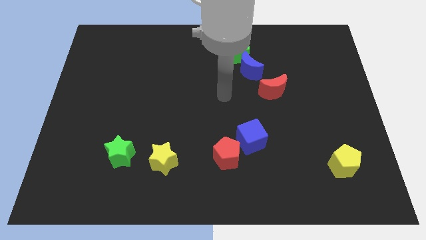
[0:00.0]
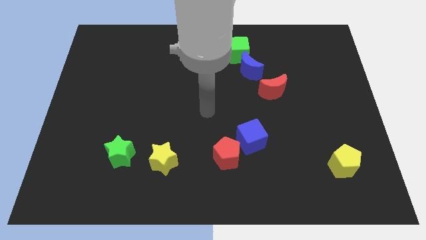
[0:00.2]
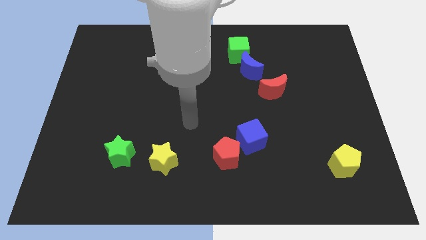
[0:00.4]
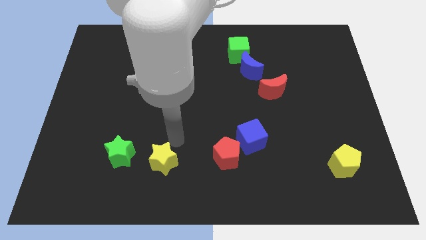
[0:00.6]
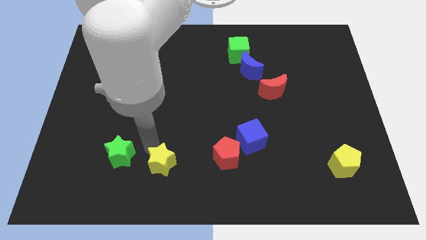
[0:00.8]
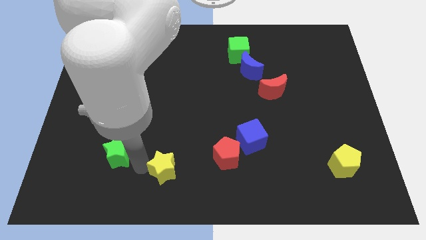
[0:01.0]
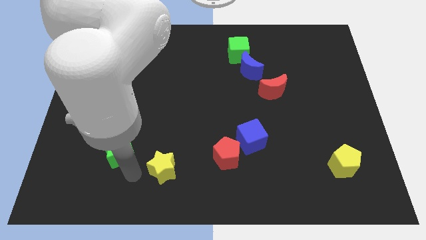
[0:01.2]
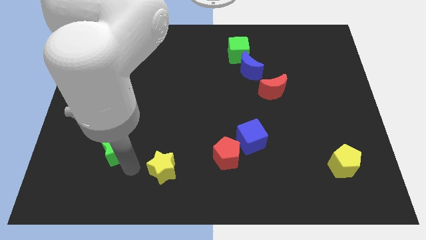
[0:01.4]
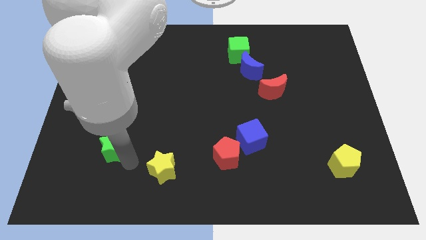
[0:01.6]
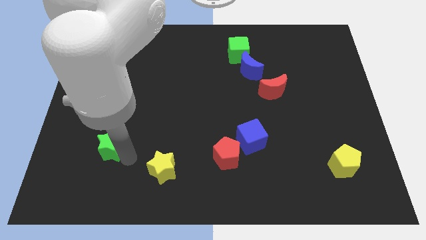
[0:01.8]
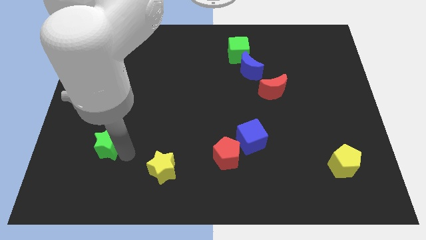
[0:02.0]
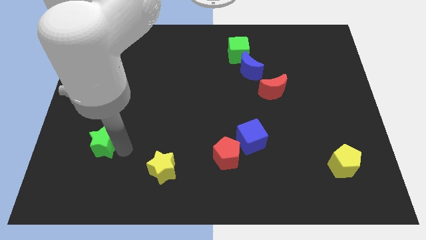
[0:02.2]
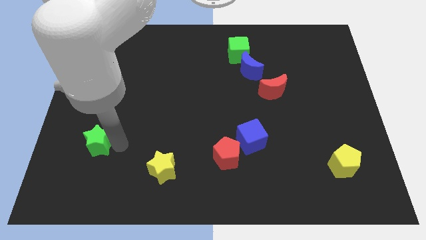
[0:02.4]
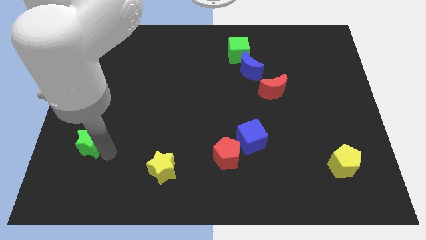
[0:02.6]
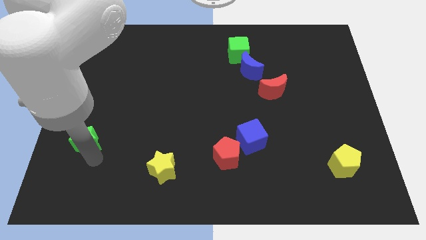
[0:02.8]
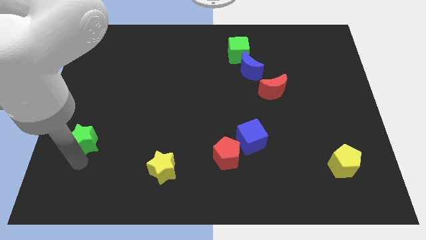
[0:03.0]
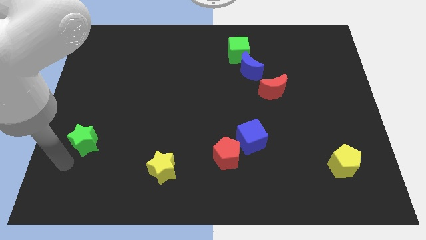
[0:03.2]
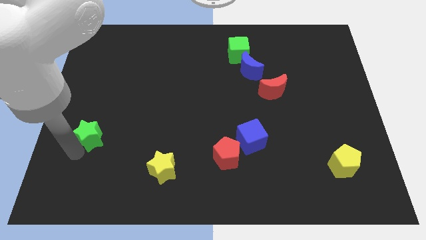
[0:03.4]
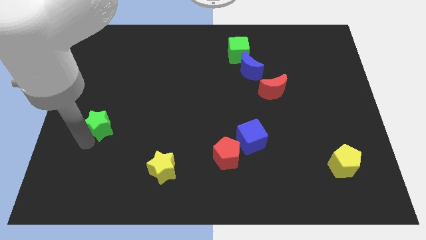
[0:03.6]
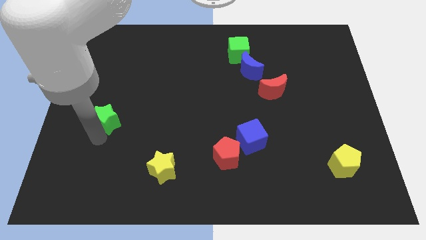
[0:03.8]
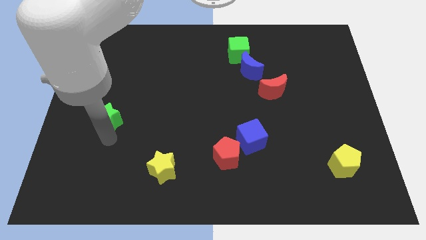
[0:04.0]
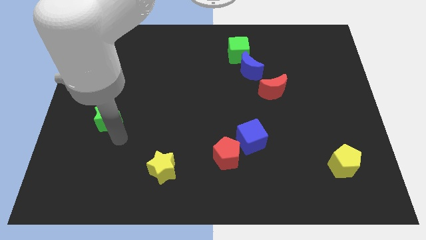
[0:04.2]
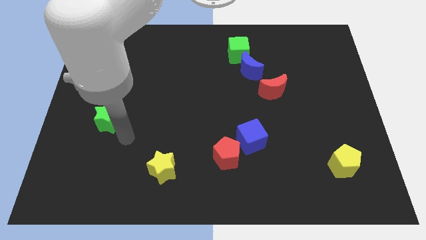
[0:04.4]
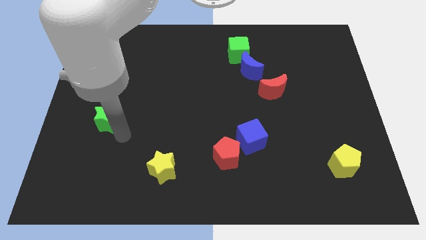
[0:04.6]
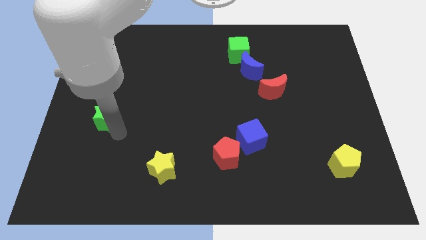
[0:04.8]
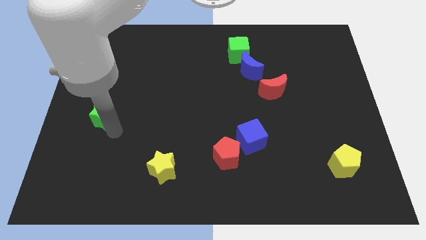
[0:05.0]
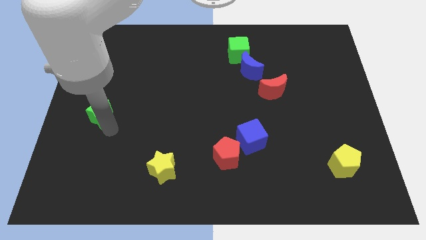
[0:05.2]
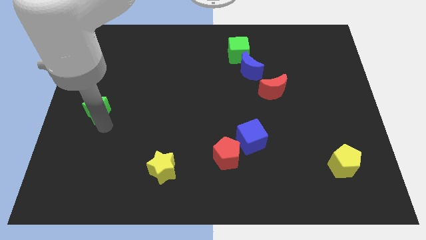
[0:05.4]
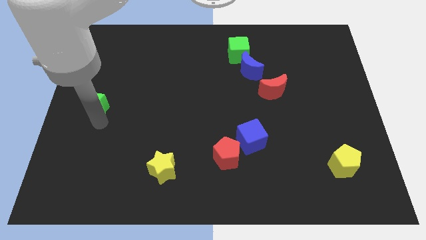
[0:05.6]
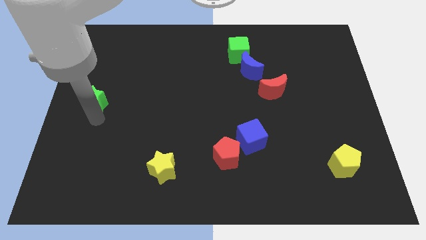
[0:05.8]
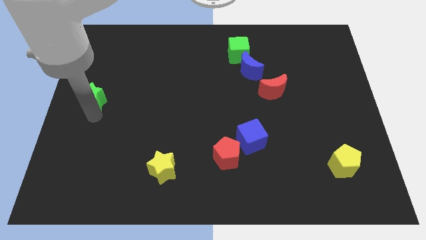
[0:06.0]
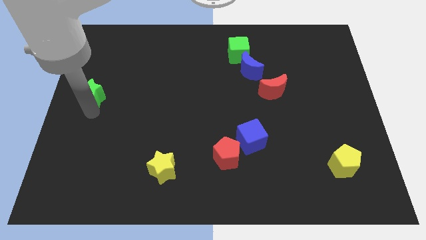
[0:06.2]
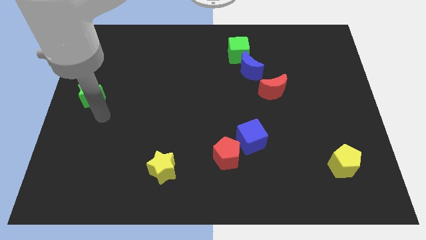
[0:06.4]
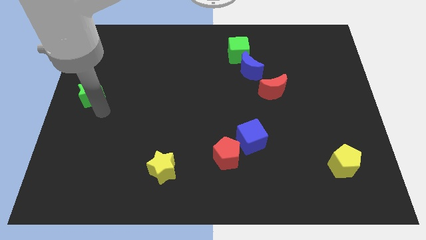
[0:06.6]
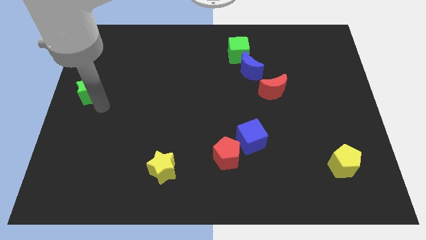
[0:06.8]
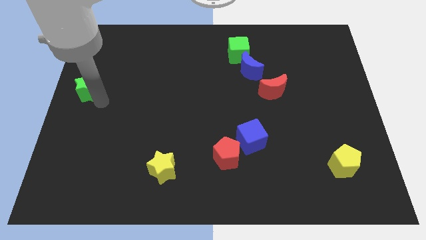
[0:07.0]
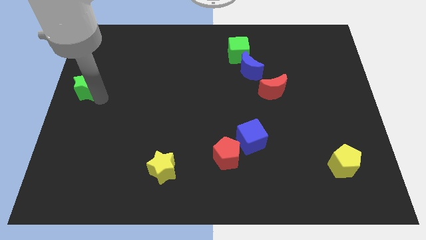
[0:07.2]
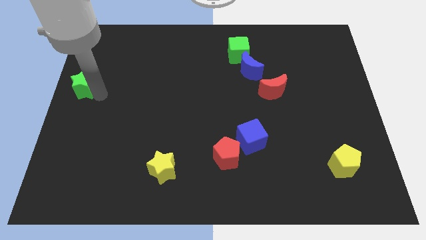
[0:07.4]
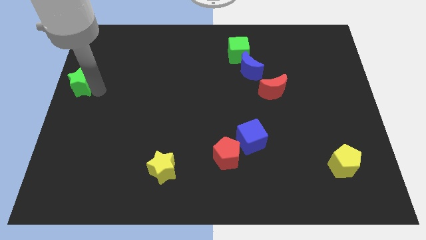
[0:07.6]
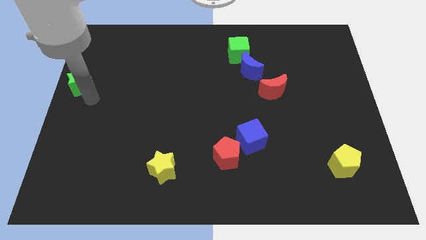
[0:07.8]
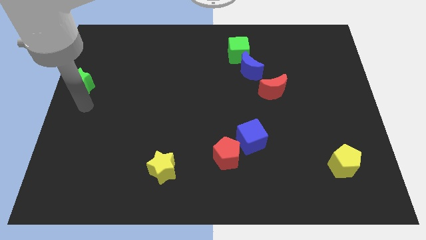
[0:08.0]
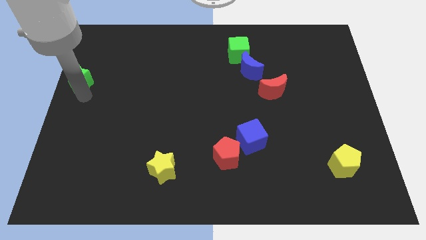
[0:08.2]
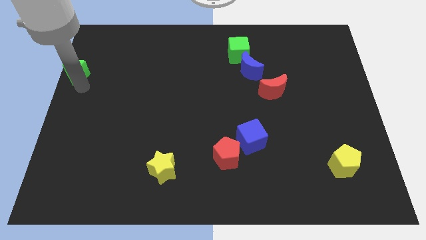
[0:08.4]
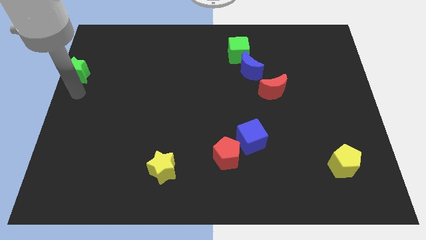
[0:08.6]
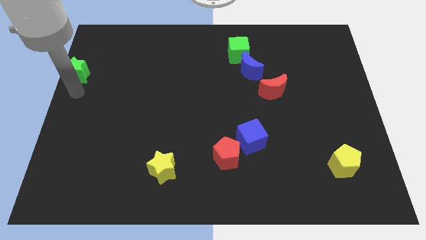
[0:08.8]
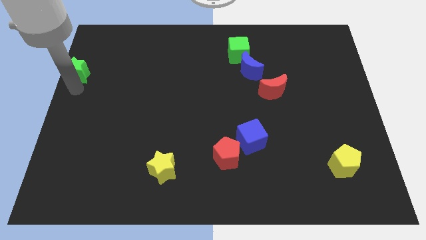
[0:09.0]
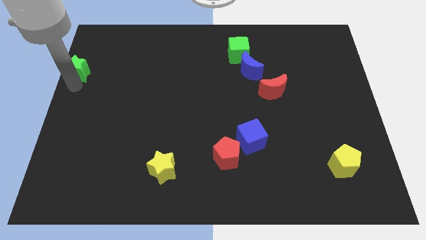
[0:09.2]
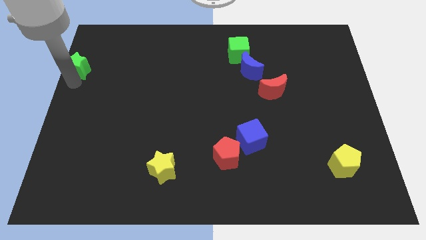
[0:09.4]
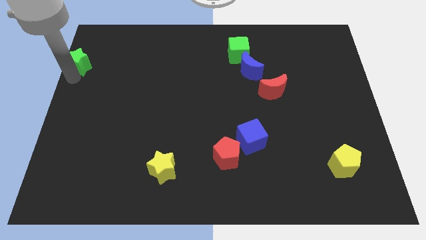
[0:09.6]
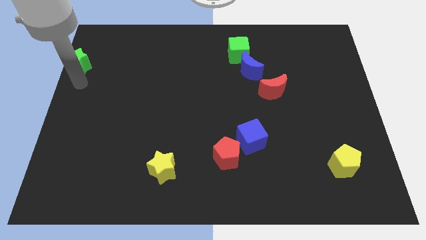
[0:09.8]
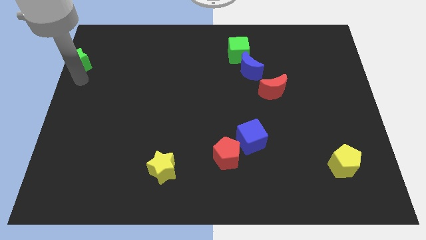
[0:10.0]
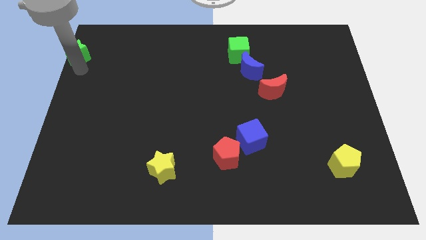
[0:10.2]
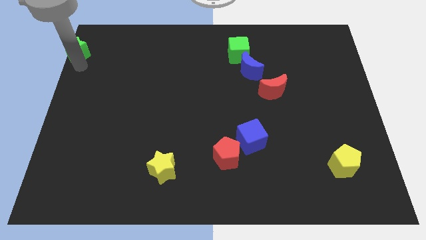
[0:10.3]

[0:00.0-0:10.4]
put the green star to the top left of the board

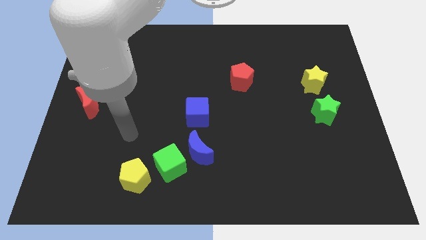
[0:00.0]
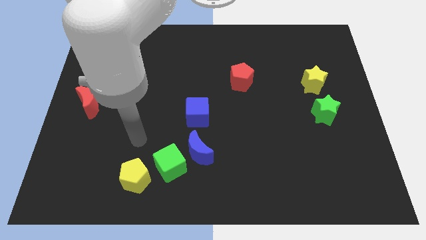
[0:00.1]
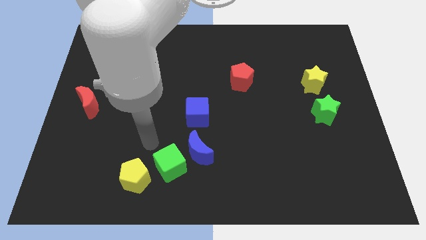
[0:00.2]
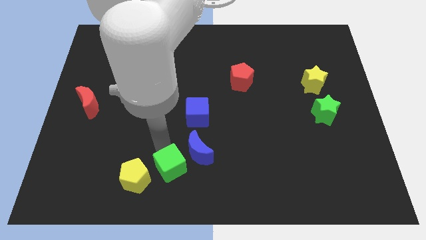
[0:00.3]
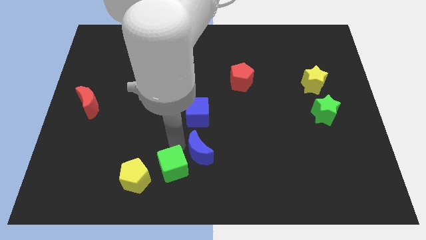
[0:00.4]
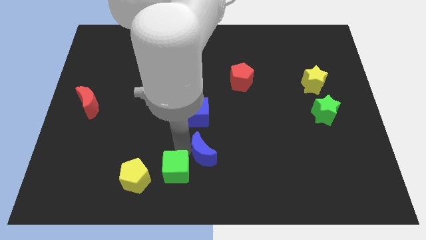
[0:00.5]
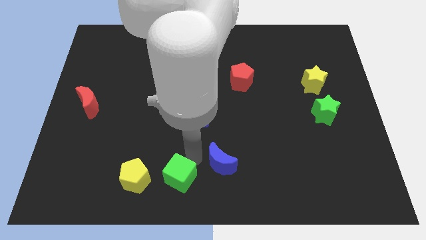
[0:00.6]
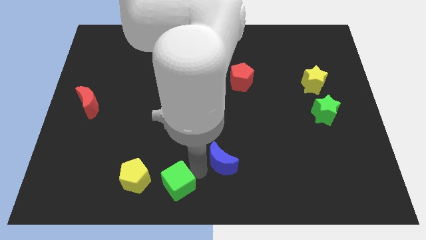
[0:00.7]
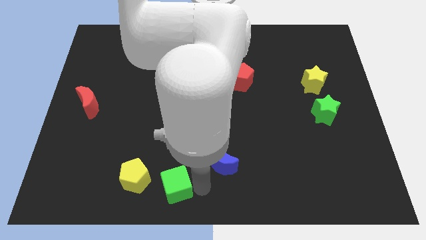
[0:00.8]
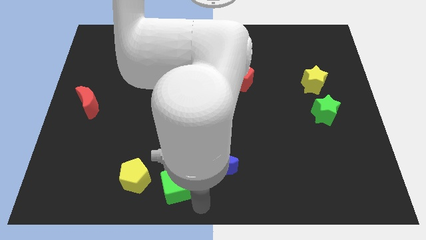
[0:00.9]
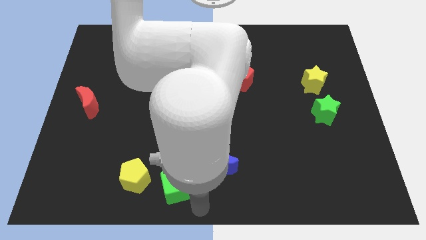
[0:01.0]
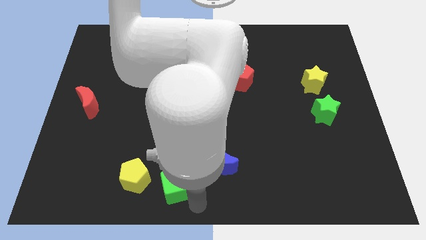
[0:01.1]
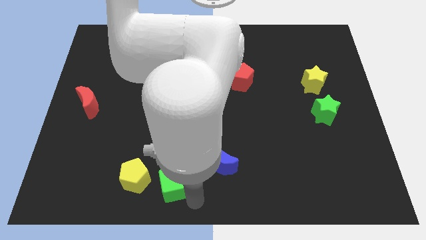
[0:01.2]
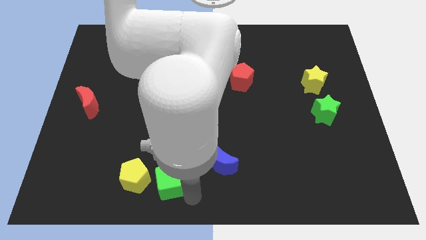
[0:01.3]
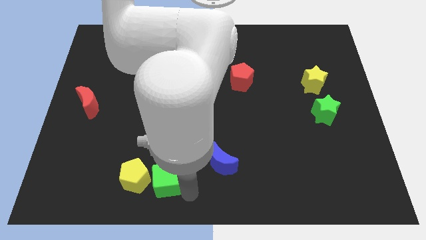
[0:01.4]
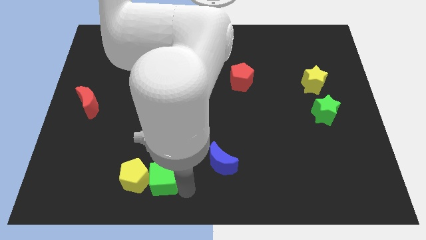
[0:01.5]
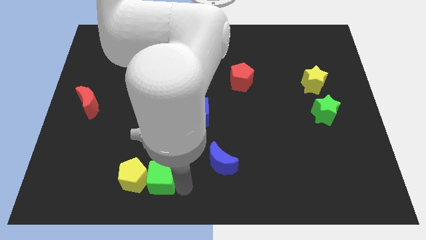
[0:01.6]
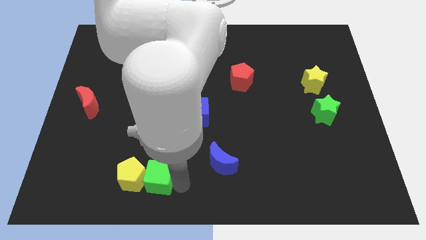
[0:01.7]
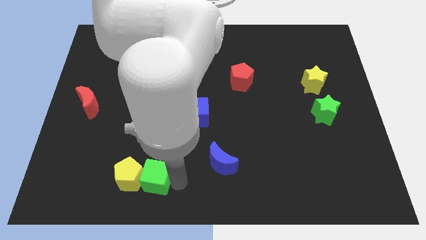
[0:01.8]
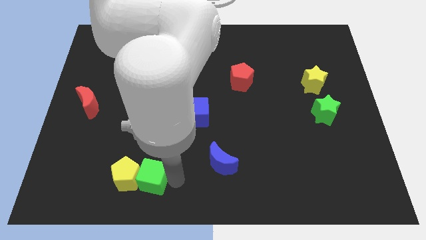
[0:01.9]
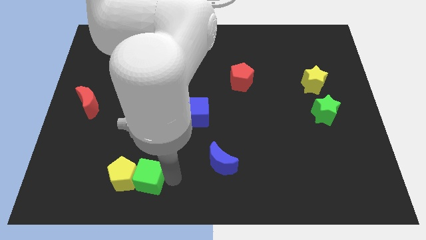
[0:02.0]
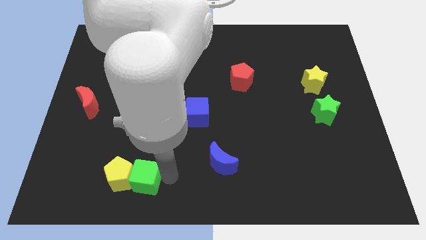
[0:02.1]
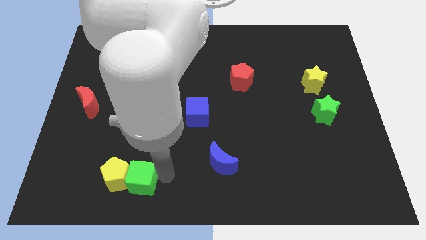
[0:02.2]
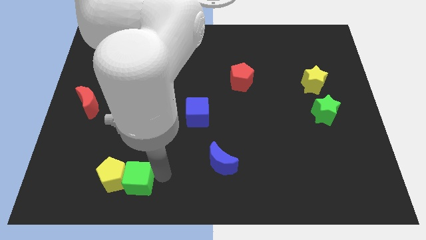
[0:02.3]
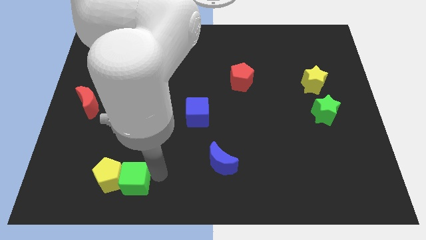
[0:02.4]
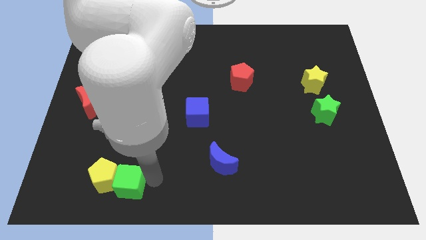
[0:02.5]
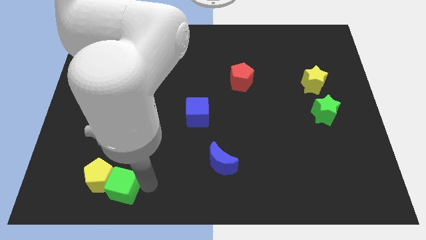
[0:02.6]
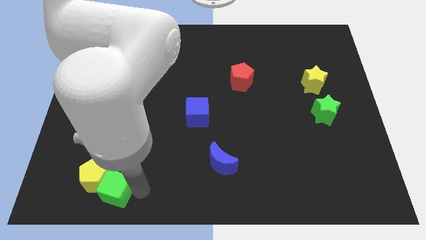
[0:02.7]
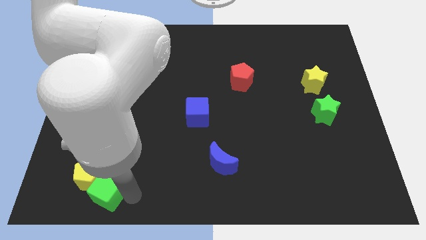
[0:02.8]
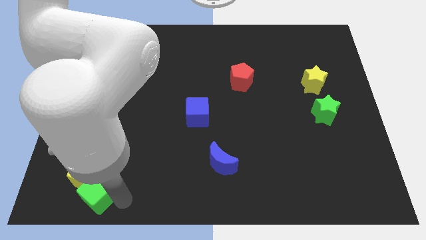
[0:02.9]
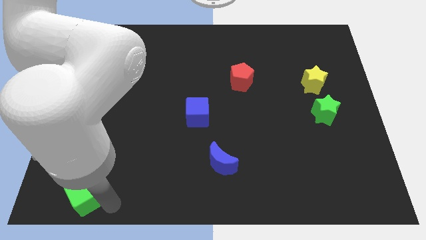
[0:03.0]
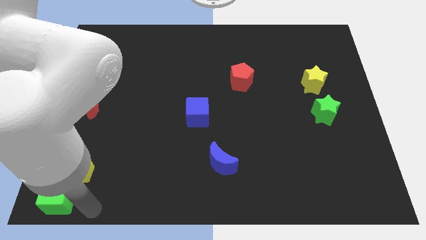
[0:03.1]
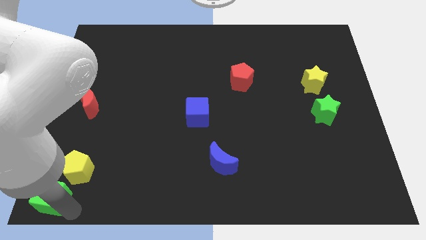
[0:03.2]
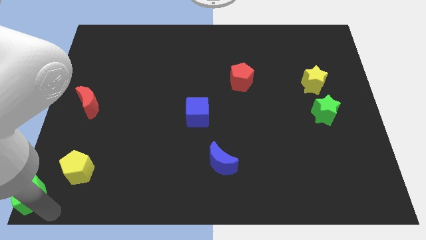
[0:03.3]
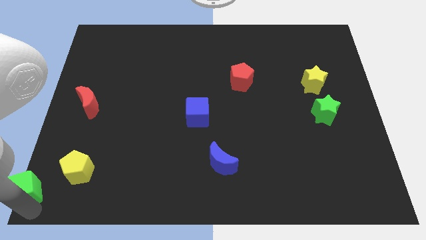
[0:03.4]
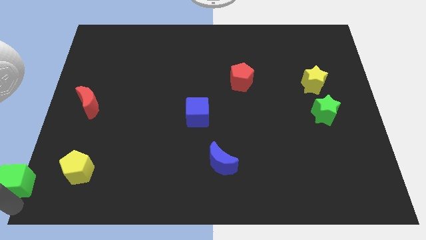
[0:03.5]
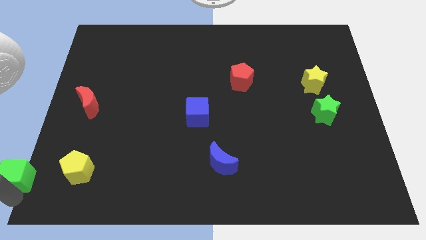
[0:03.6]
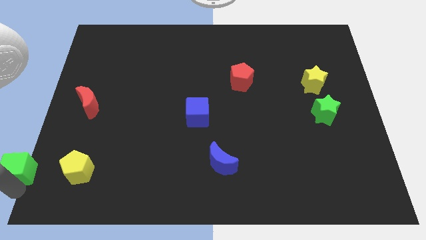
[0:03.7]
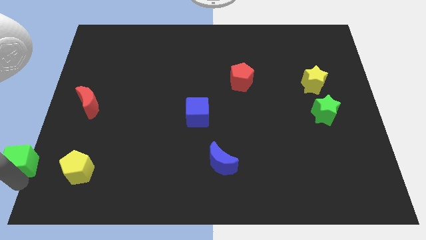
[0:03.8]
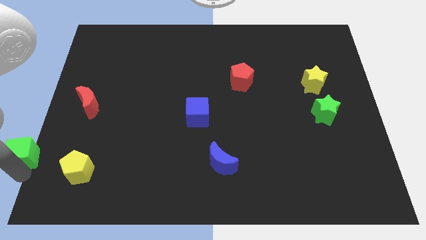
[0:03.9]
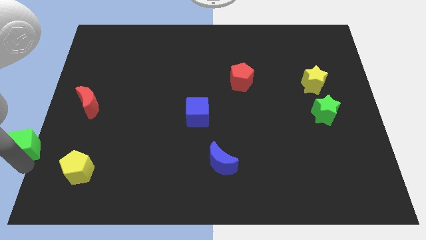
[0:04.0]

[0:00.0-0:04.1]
slide the green cube to the center left
